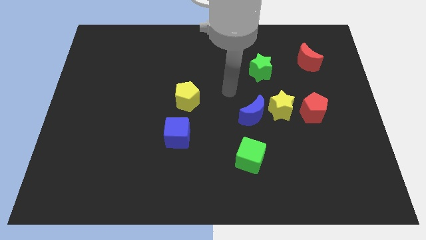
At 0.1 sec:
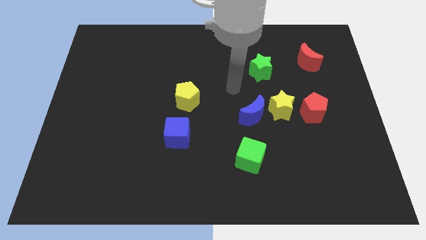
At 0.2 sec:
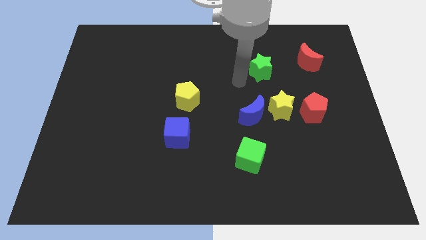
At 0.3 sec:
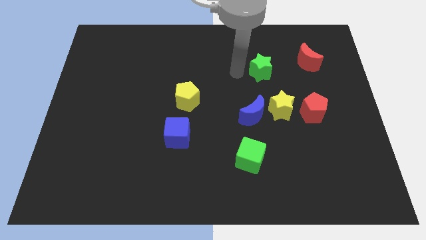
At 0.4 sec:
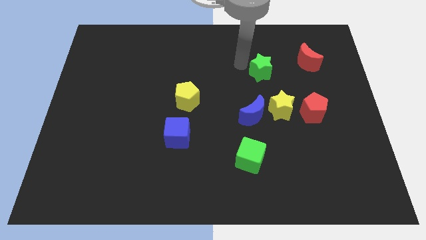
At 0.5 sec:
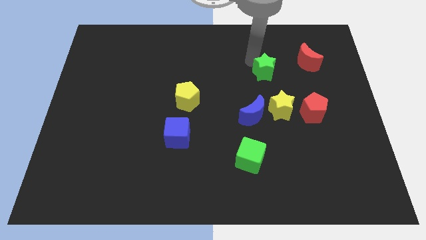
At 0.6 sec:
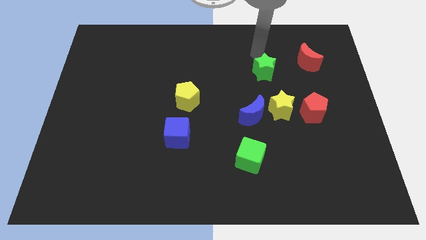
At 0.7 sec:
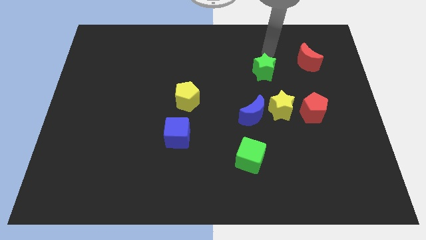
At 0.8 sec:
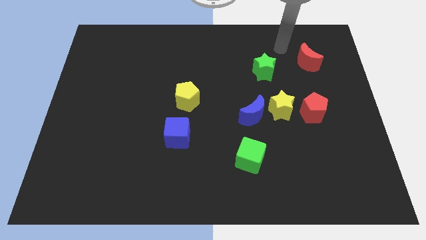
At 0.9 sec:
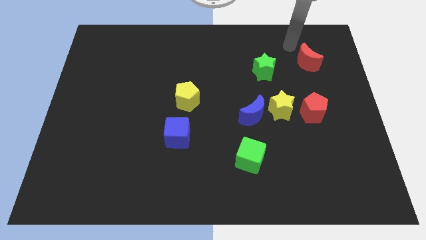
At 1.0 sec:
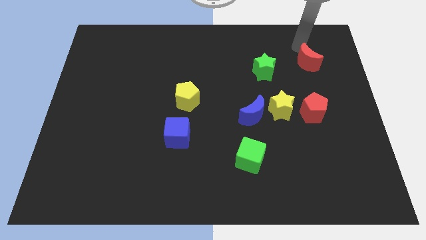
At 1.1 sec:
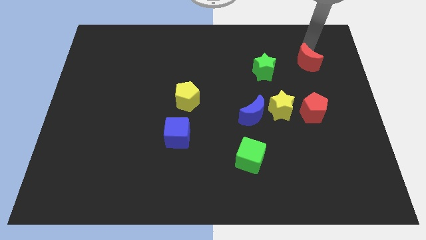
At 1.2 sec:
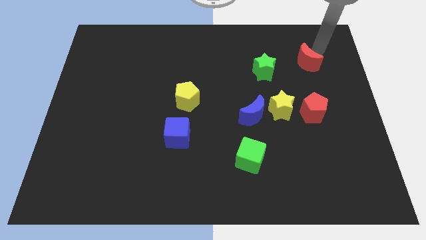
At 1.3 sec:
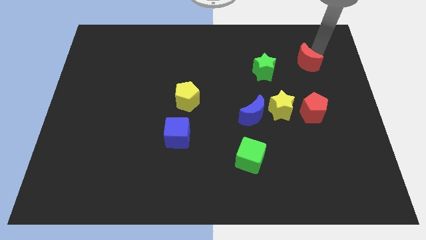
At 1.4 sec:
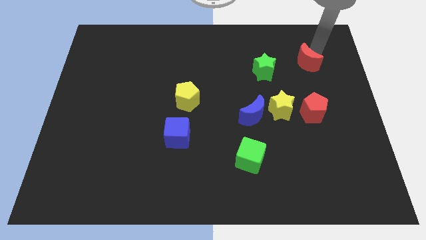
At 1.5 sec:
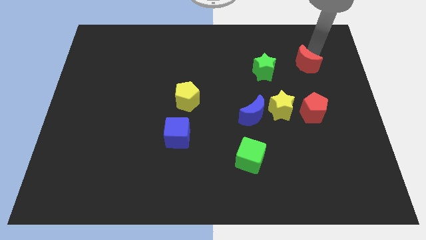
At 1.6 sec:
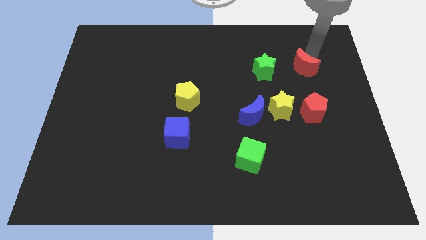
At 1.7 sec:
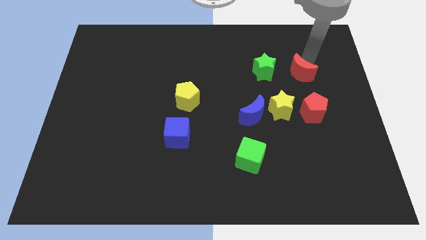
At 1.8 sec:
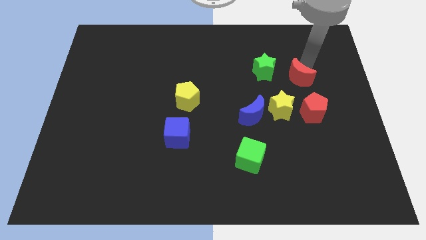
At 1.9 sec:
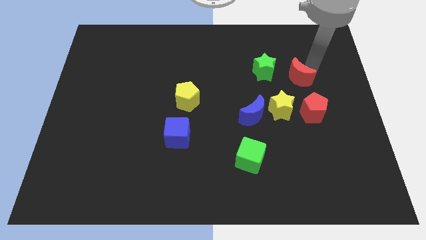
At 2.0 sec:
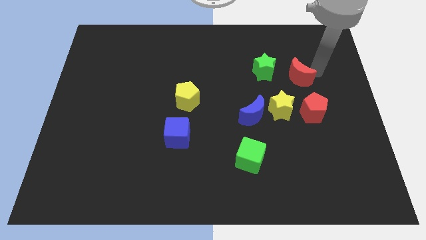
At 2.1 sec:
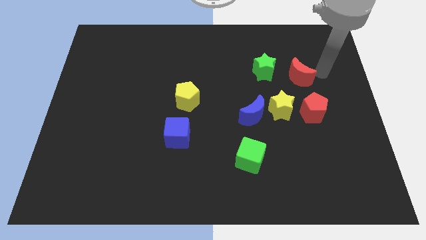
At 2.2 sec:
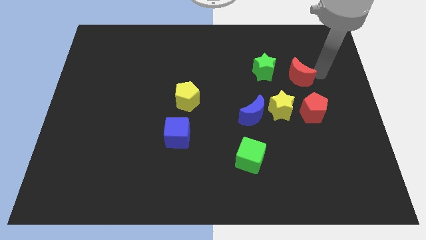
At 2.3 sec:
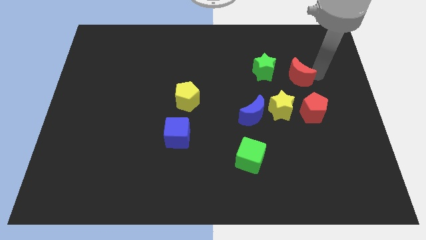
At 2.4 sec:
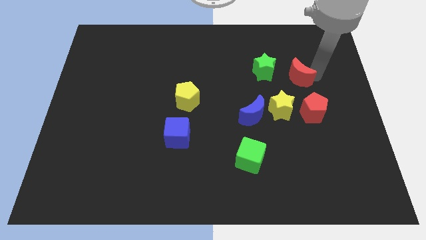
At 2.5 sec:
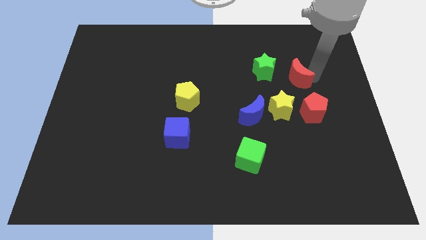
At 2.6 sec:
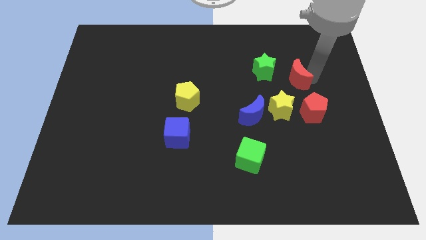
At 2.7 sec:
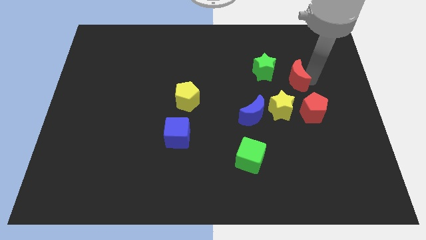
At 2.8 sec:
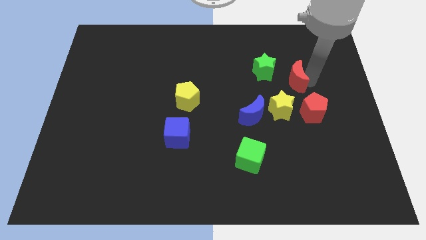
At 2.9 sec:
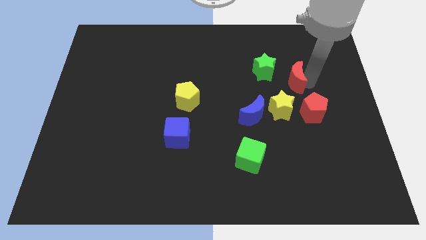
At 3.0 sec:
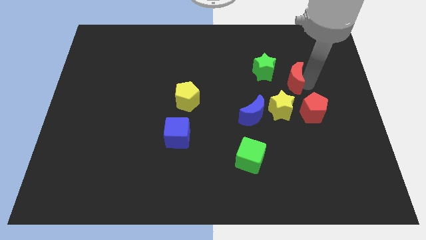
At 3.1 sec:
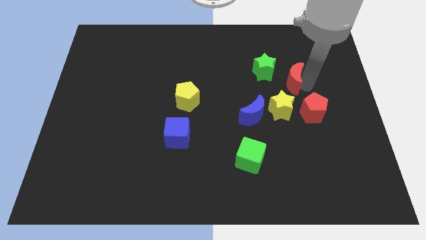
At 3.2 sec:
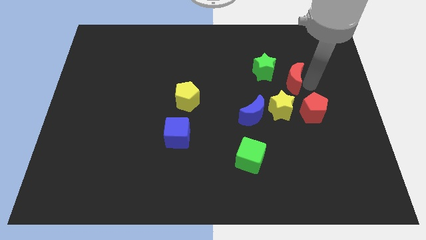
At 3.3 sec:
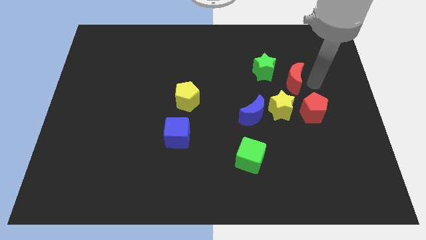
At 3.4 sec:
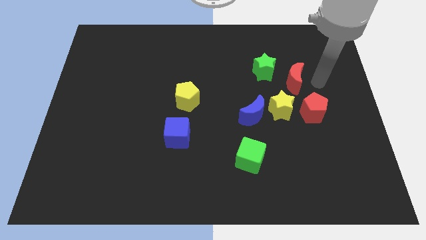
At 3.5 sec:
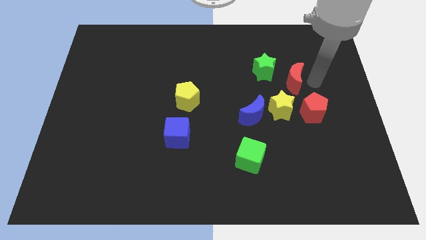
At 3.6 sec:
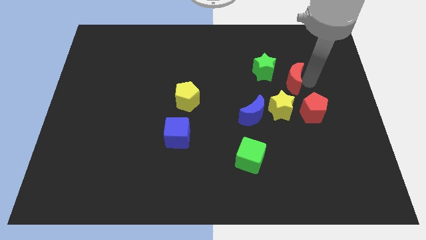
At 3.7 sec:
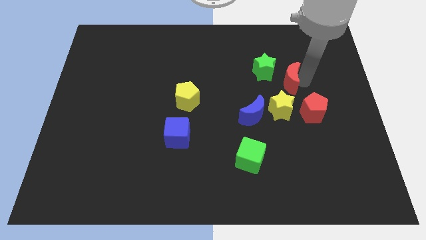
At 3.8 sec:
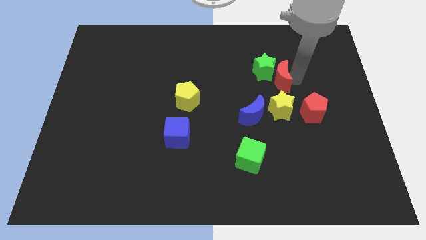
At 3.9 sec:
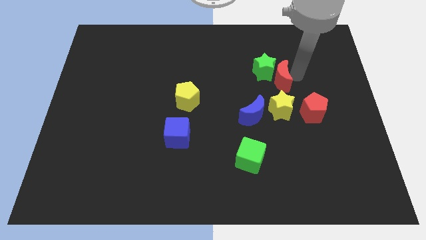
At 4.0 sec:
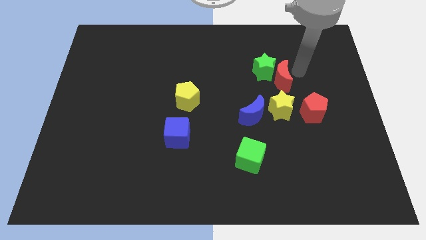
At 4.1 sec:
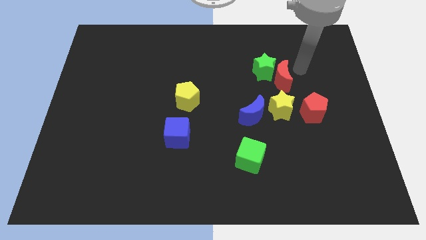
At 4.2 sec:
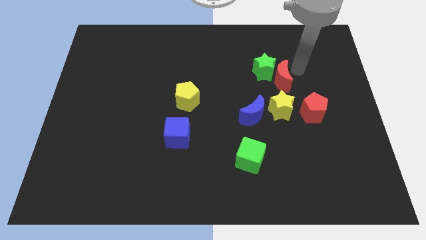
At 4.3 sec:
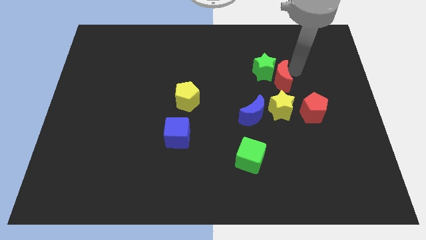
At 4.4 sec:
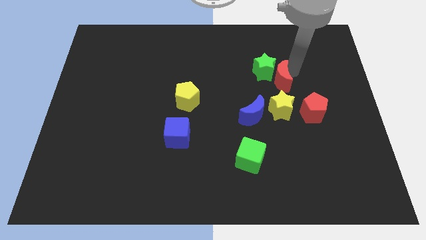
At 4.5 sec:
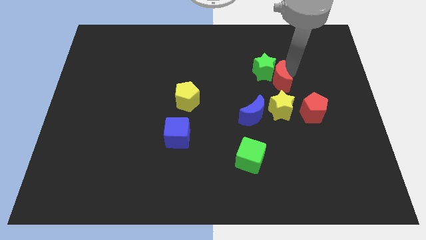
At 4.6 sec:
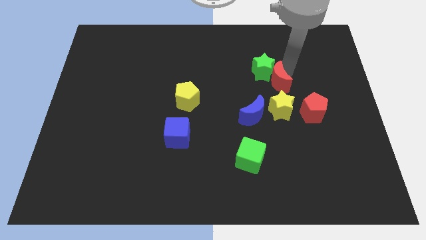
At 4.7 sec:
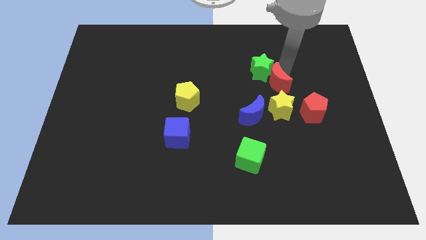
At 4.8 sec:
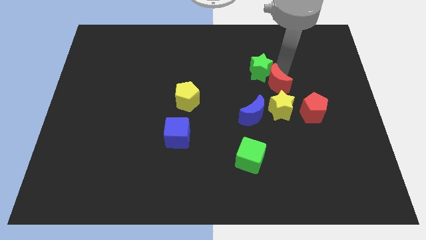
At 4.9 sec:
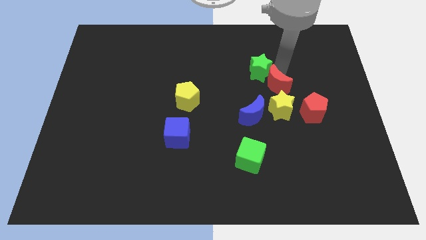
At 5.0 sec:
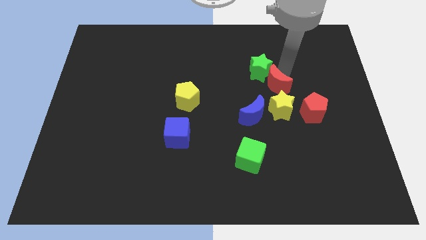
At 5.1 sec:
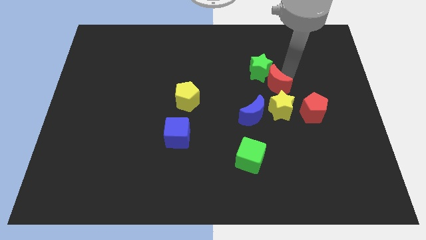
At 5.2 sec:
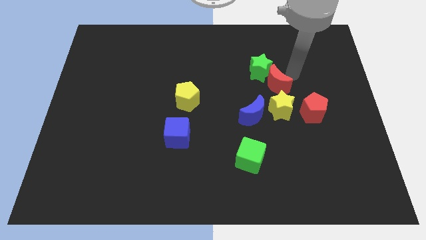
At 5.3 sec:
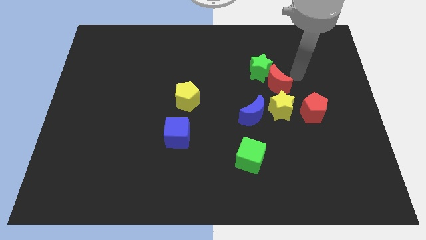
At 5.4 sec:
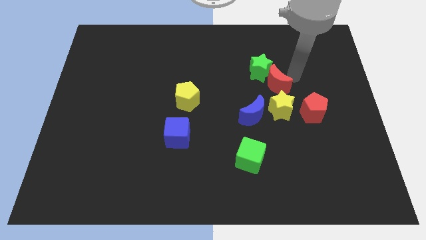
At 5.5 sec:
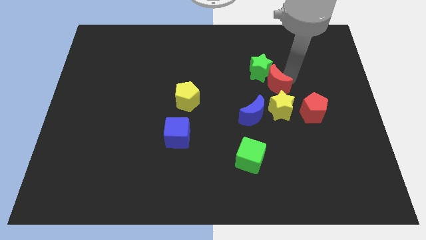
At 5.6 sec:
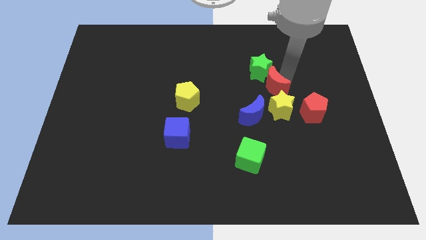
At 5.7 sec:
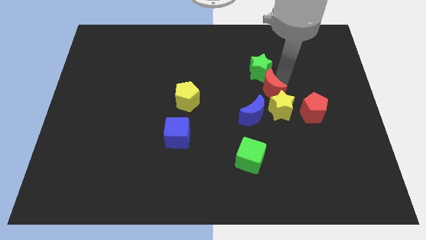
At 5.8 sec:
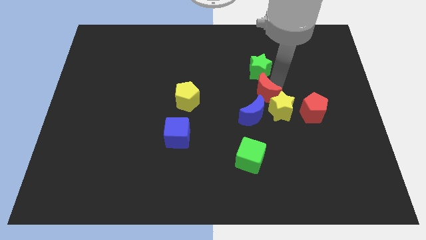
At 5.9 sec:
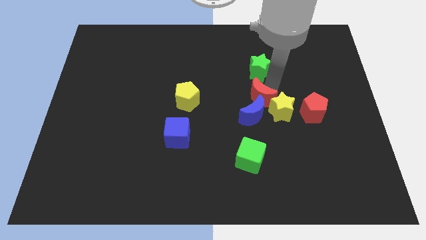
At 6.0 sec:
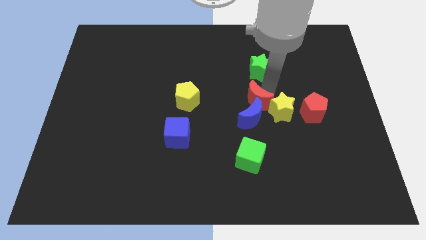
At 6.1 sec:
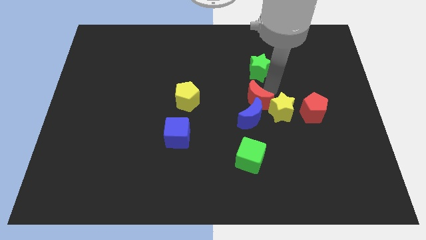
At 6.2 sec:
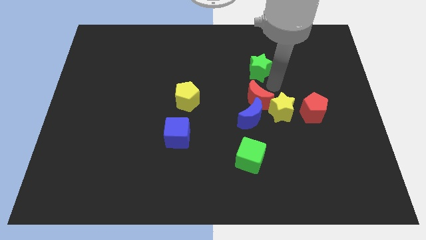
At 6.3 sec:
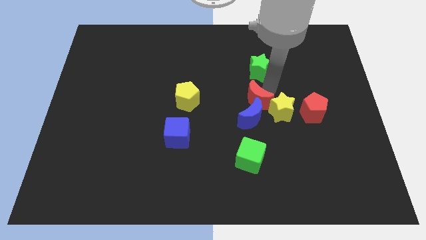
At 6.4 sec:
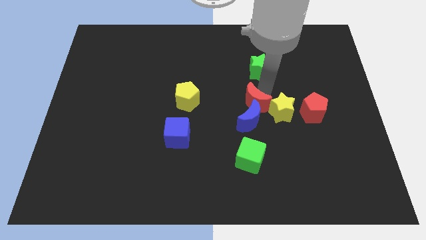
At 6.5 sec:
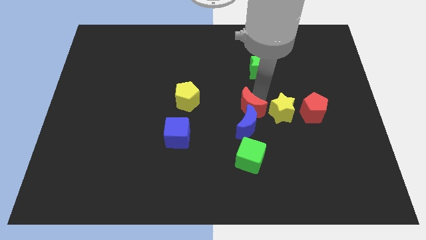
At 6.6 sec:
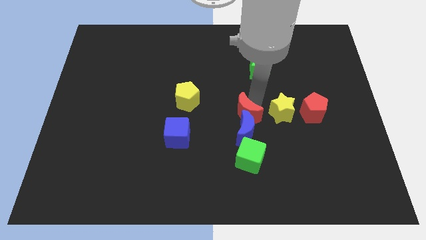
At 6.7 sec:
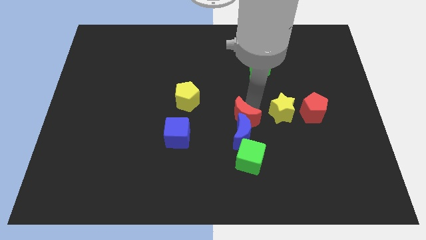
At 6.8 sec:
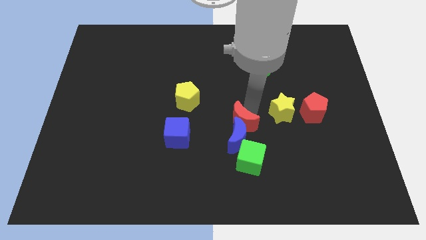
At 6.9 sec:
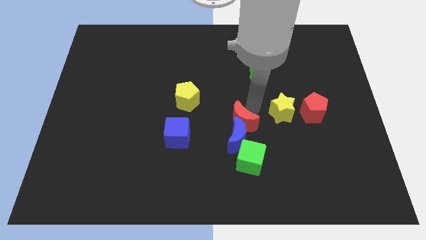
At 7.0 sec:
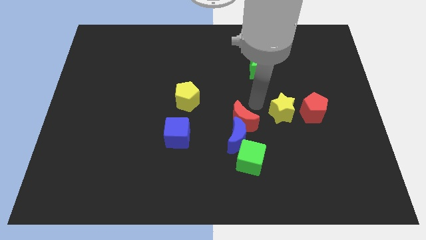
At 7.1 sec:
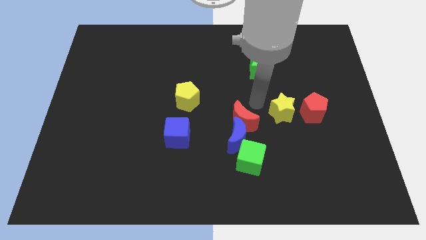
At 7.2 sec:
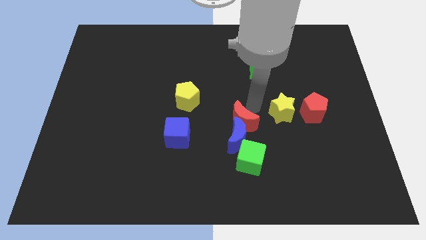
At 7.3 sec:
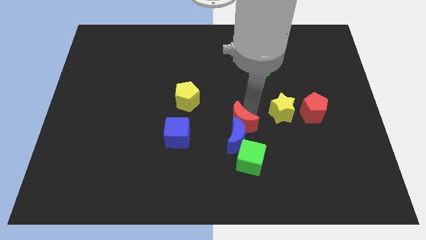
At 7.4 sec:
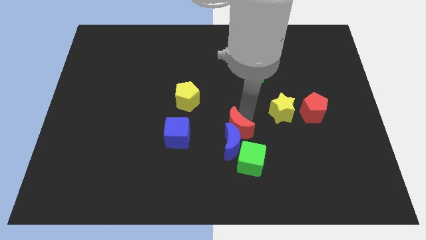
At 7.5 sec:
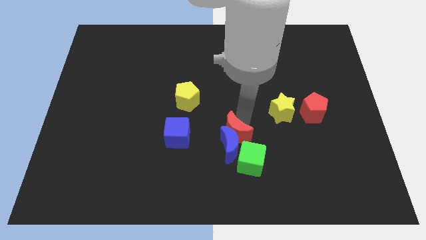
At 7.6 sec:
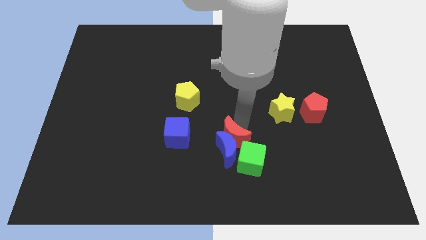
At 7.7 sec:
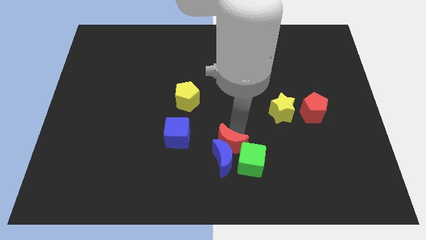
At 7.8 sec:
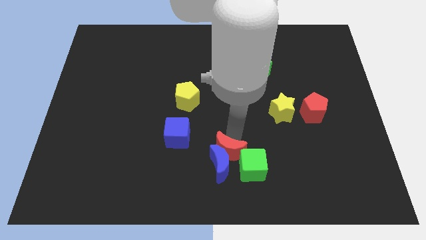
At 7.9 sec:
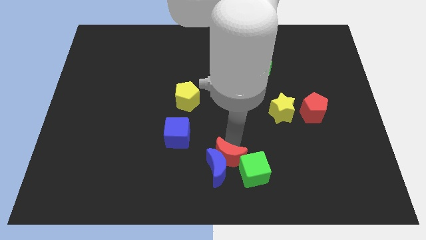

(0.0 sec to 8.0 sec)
move the red moon to the bottom
